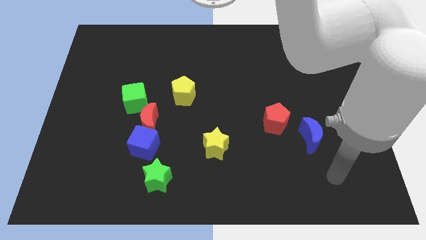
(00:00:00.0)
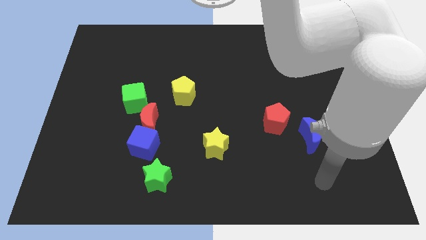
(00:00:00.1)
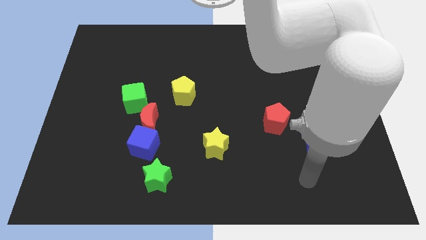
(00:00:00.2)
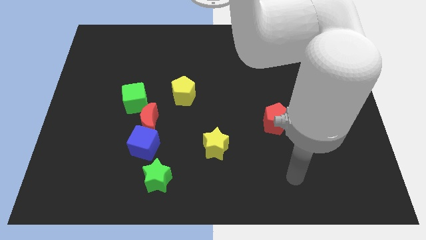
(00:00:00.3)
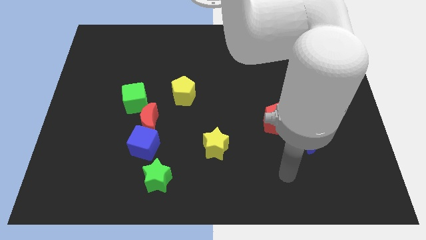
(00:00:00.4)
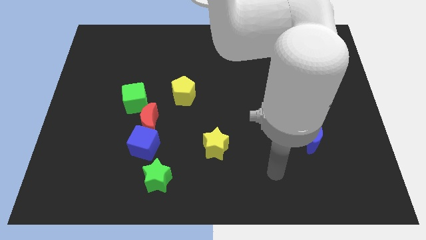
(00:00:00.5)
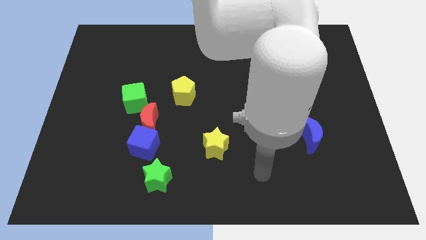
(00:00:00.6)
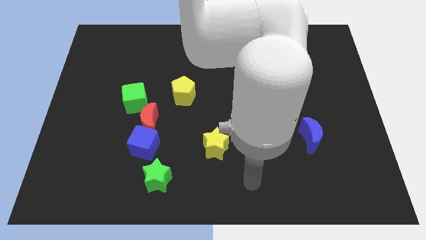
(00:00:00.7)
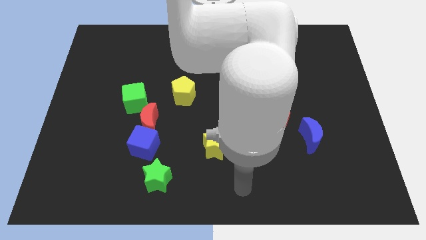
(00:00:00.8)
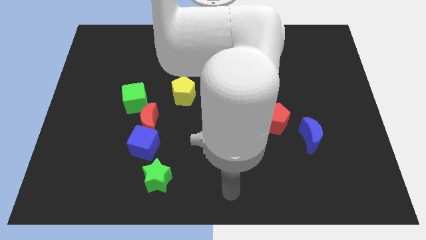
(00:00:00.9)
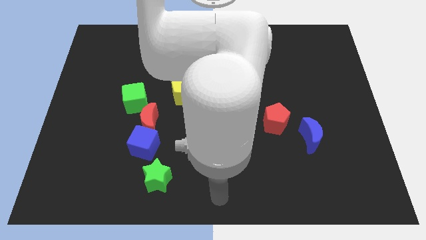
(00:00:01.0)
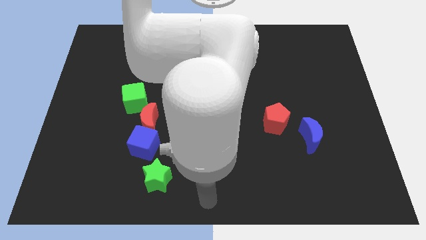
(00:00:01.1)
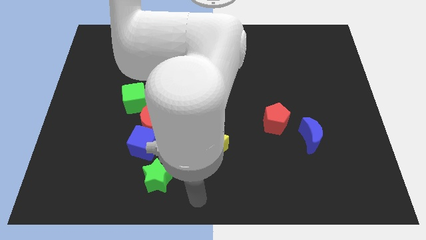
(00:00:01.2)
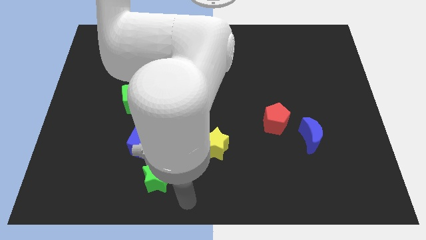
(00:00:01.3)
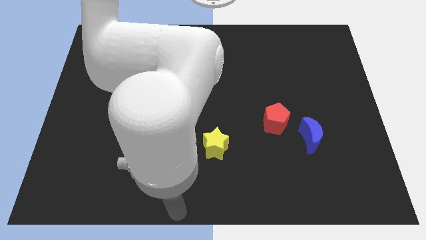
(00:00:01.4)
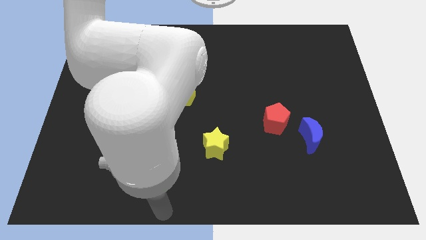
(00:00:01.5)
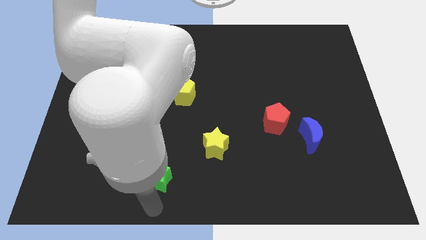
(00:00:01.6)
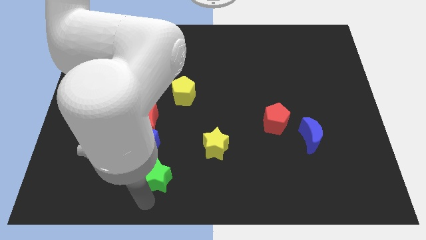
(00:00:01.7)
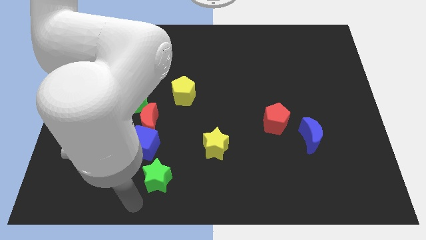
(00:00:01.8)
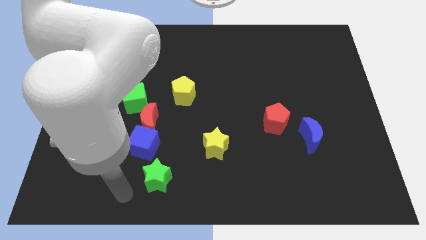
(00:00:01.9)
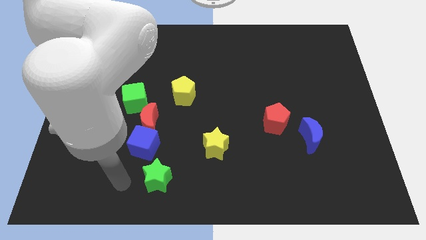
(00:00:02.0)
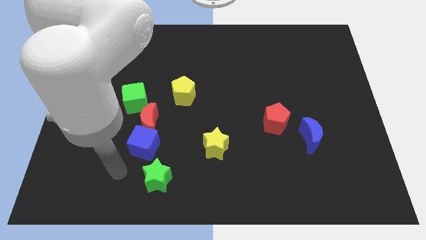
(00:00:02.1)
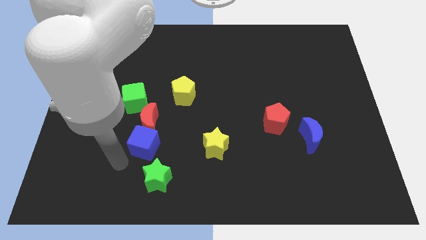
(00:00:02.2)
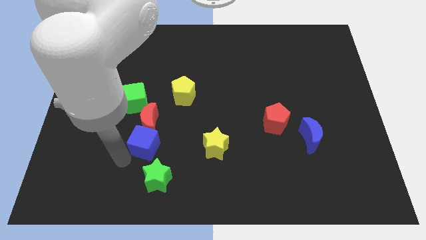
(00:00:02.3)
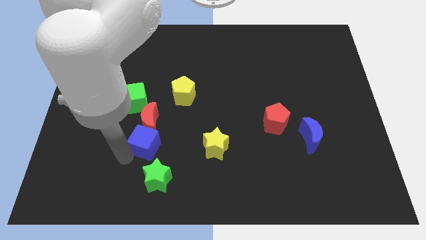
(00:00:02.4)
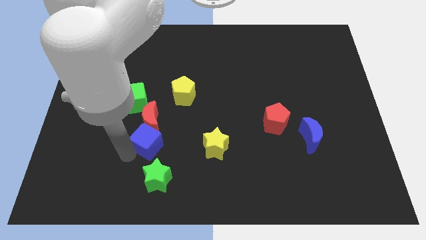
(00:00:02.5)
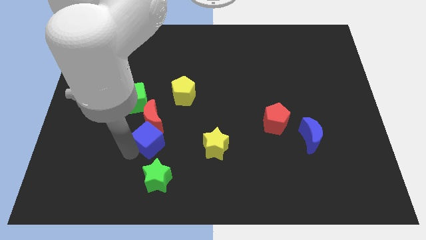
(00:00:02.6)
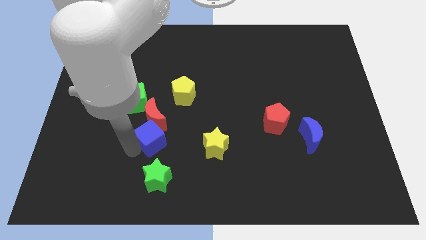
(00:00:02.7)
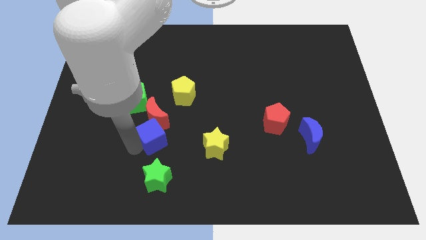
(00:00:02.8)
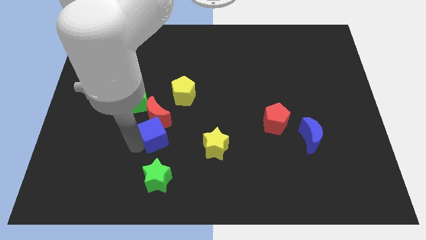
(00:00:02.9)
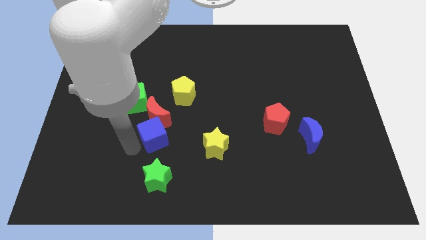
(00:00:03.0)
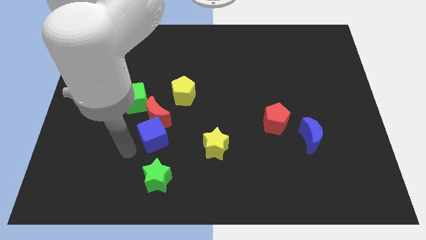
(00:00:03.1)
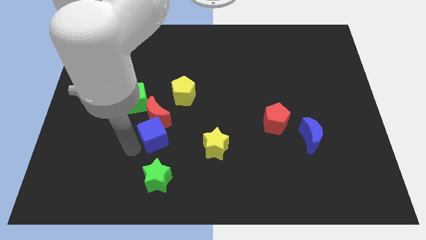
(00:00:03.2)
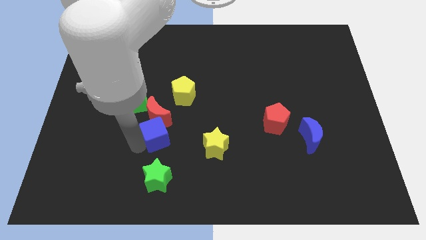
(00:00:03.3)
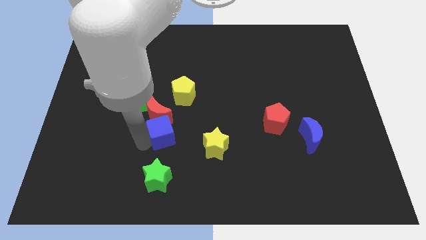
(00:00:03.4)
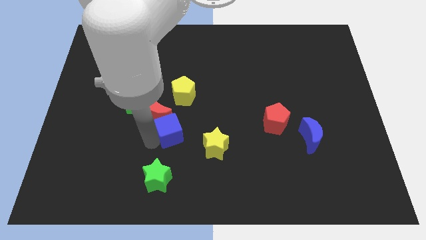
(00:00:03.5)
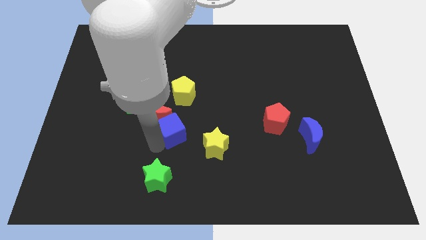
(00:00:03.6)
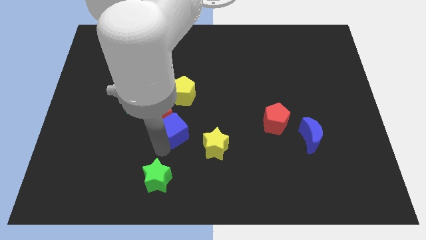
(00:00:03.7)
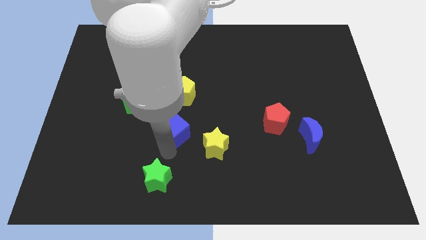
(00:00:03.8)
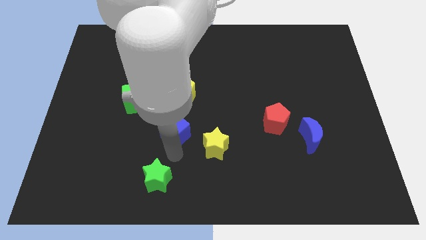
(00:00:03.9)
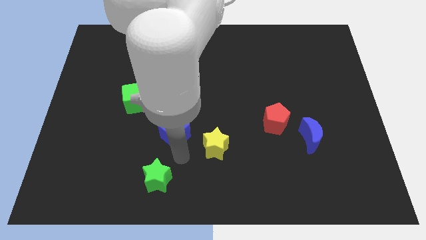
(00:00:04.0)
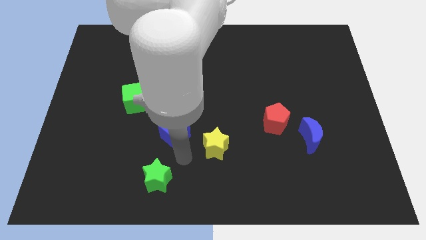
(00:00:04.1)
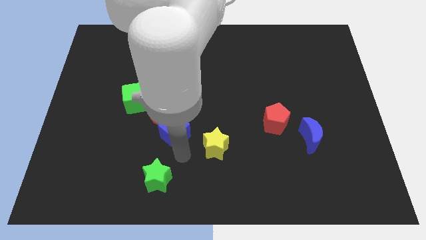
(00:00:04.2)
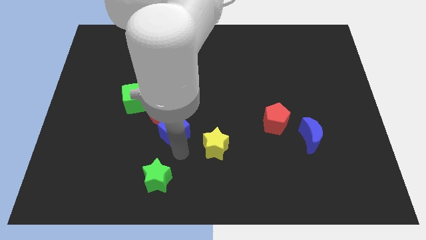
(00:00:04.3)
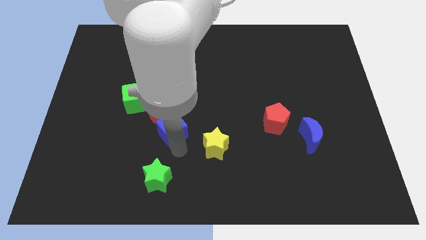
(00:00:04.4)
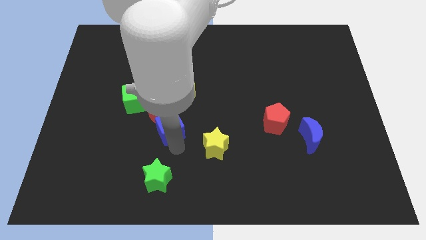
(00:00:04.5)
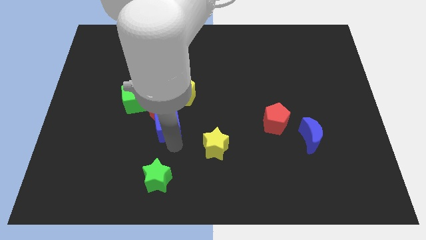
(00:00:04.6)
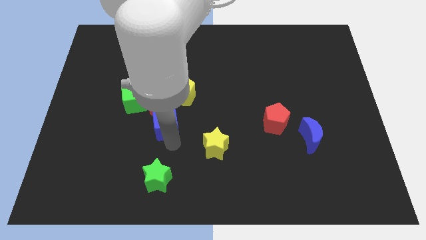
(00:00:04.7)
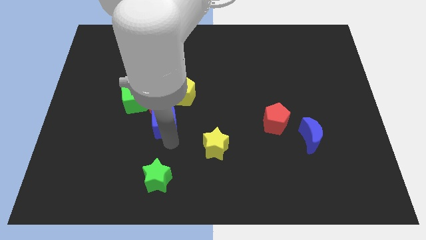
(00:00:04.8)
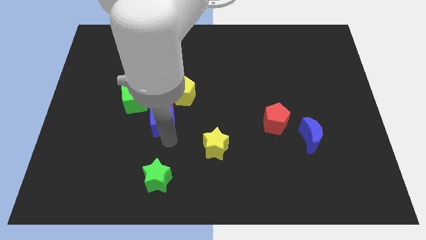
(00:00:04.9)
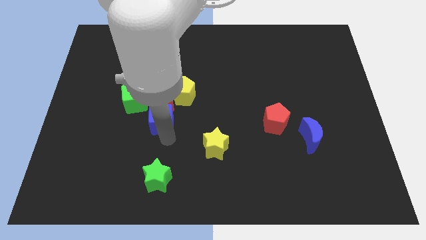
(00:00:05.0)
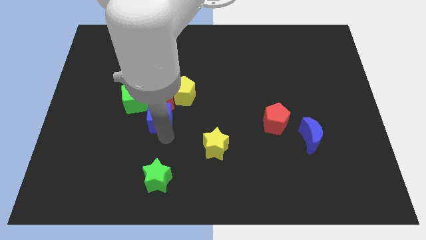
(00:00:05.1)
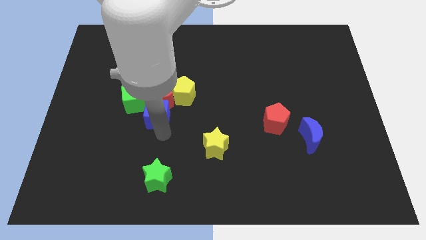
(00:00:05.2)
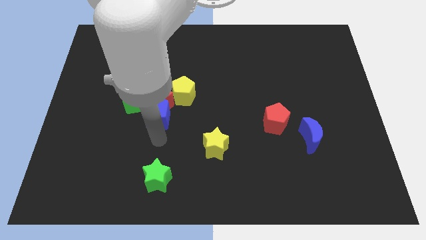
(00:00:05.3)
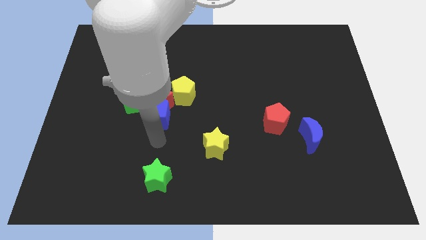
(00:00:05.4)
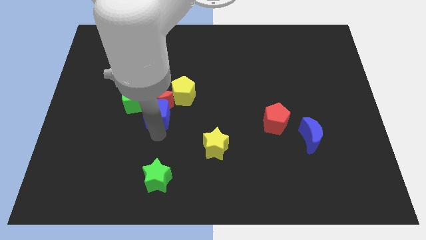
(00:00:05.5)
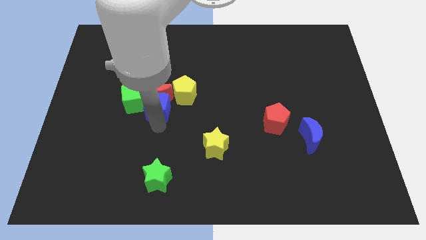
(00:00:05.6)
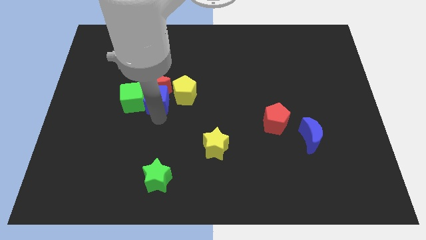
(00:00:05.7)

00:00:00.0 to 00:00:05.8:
put the blue cube diagonally up and to the right of the green cube

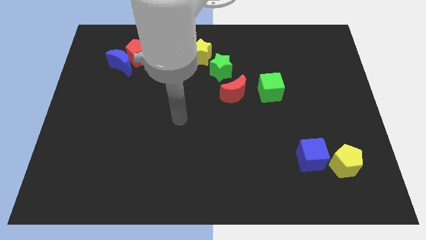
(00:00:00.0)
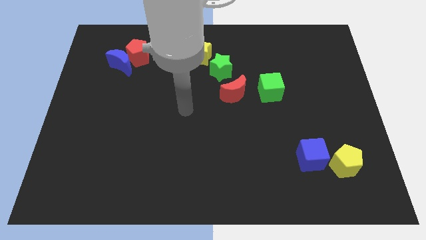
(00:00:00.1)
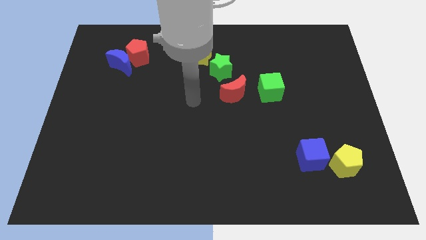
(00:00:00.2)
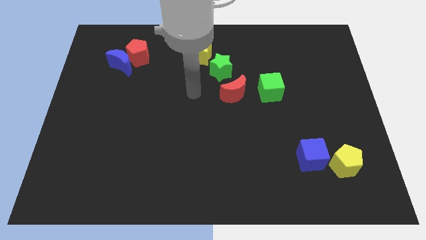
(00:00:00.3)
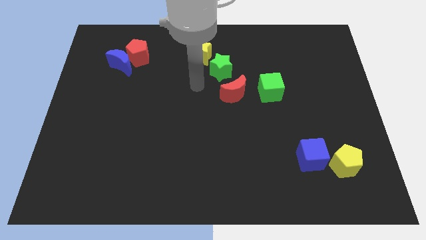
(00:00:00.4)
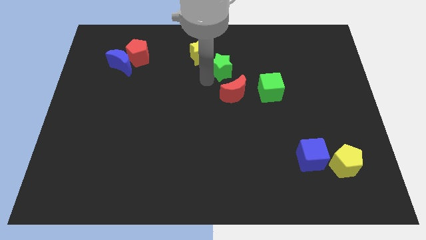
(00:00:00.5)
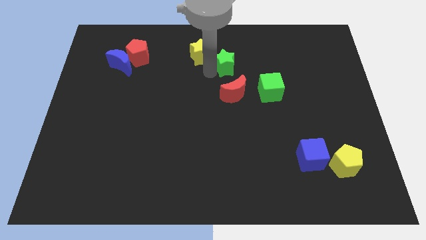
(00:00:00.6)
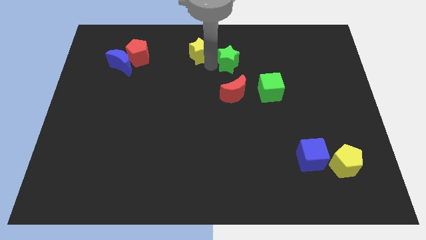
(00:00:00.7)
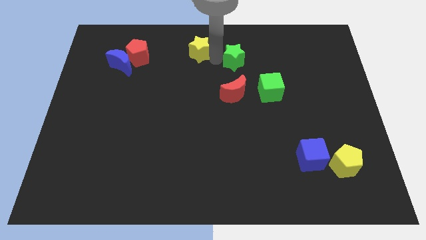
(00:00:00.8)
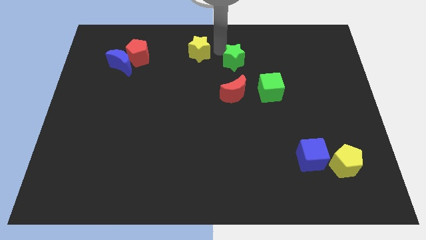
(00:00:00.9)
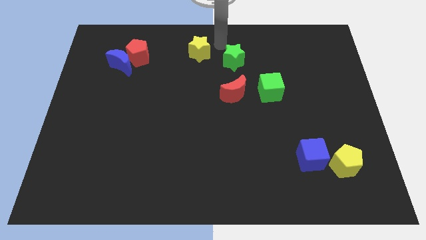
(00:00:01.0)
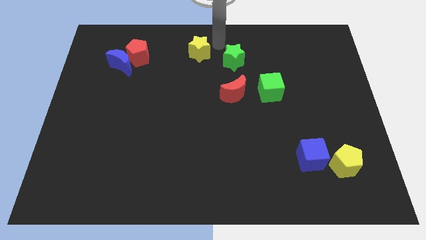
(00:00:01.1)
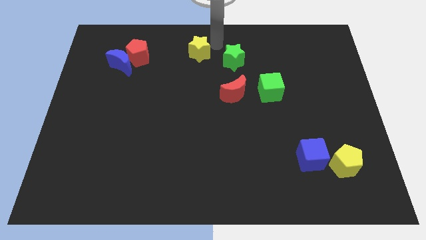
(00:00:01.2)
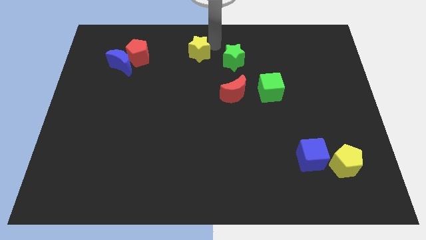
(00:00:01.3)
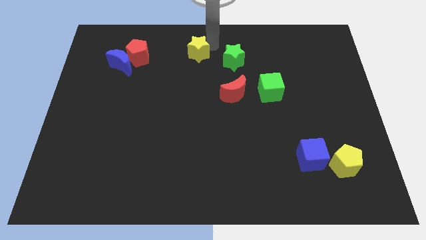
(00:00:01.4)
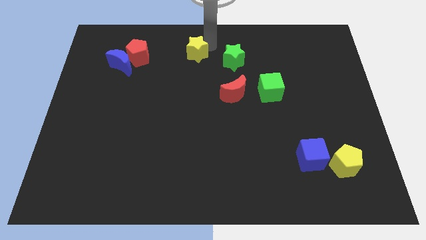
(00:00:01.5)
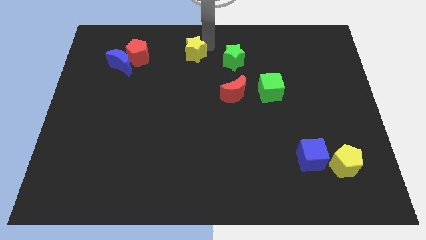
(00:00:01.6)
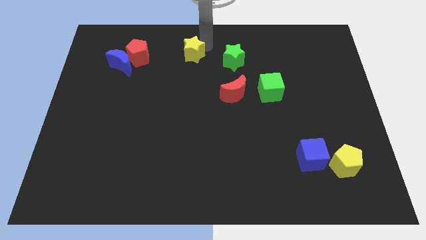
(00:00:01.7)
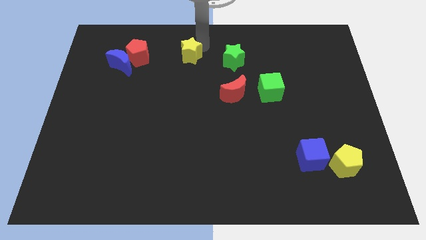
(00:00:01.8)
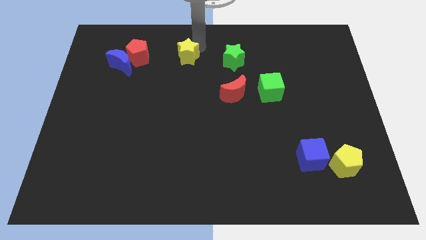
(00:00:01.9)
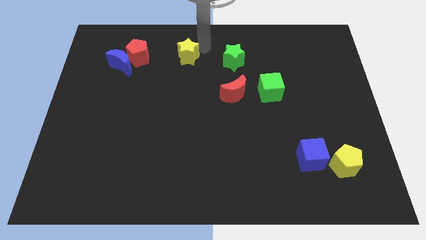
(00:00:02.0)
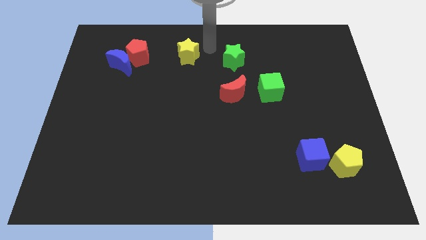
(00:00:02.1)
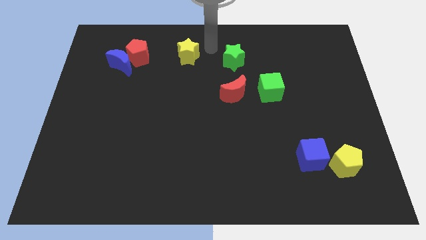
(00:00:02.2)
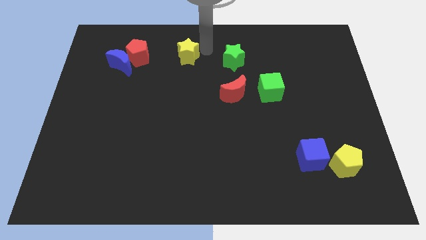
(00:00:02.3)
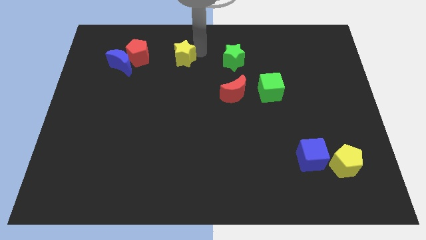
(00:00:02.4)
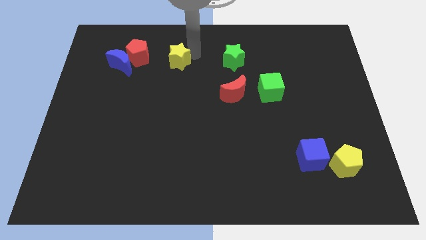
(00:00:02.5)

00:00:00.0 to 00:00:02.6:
move the yellow star to the right side of the blue moon
